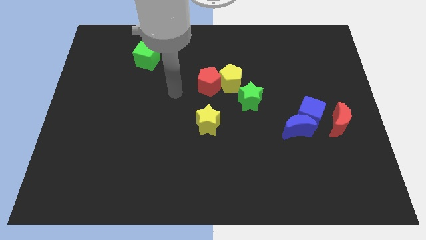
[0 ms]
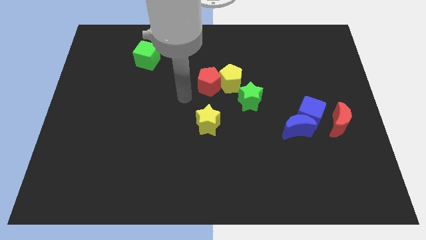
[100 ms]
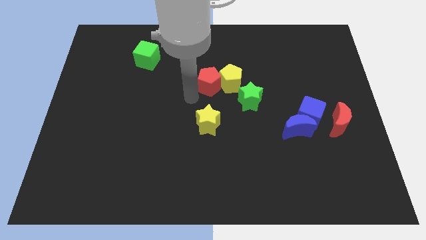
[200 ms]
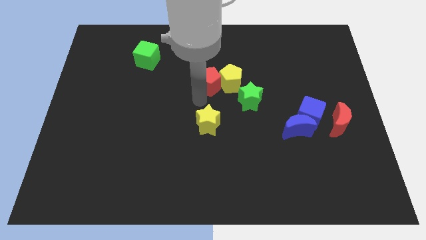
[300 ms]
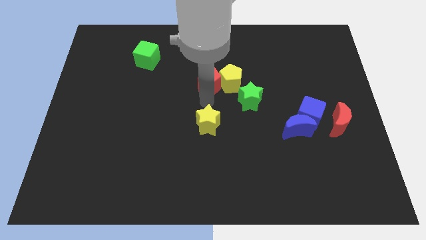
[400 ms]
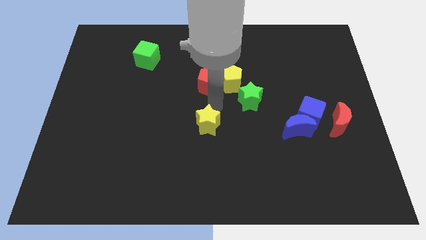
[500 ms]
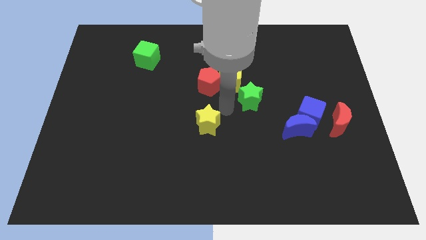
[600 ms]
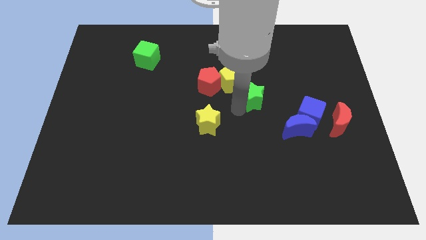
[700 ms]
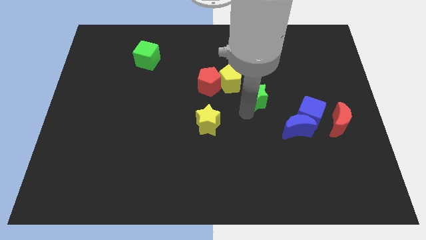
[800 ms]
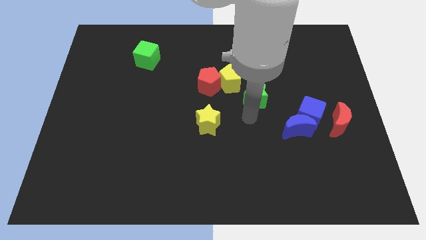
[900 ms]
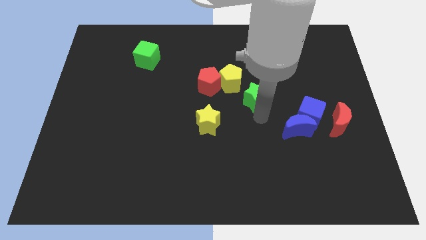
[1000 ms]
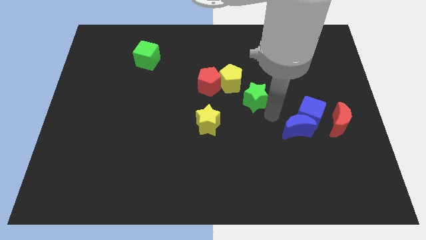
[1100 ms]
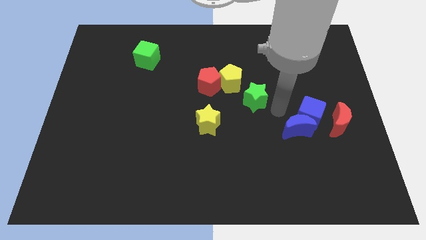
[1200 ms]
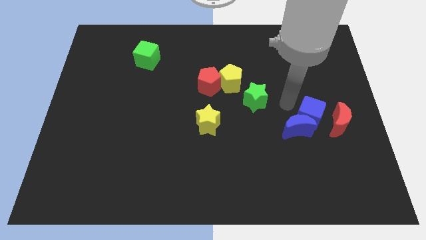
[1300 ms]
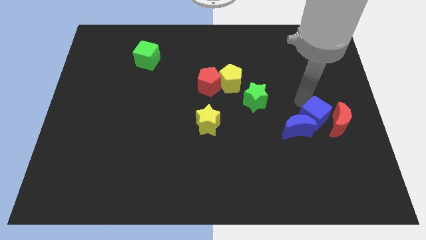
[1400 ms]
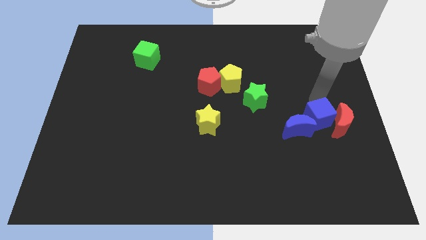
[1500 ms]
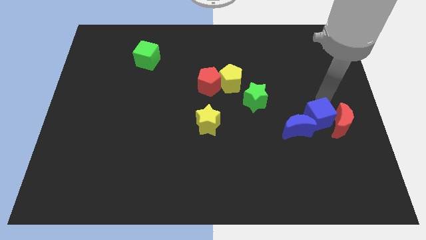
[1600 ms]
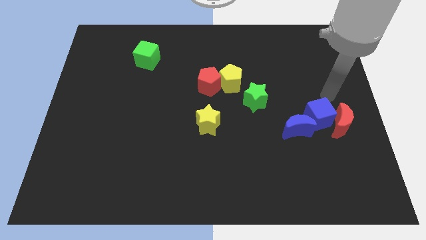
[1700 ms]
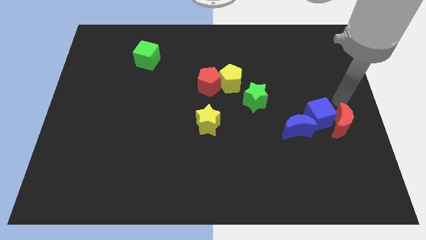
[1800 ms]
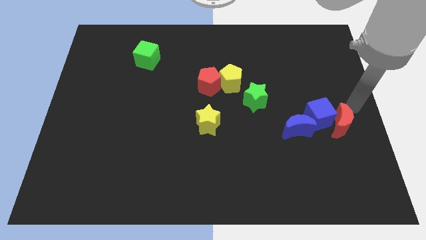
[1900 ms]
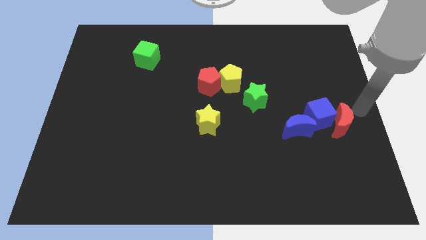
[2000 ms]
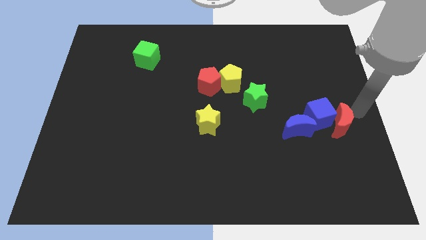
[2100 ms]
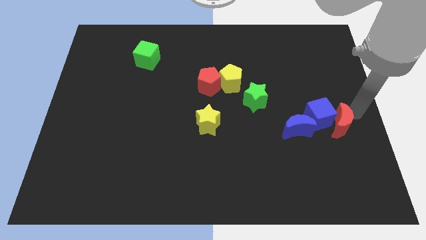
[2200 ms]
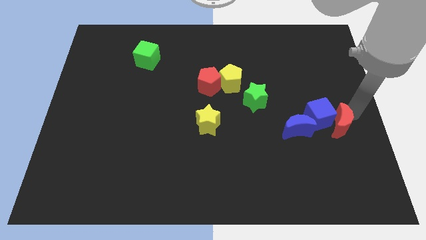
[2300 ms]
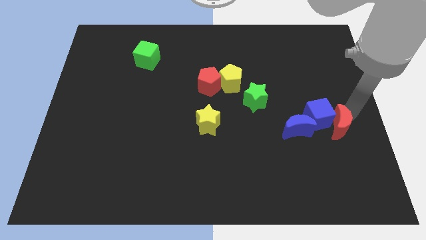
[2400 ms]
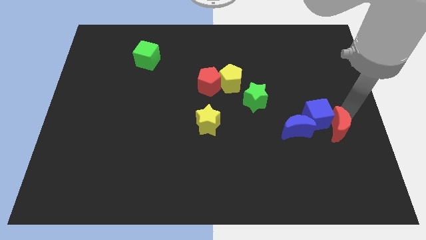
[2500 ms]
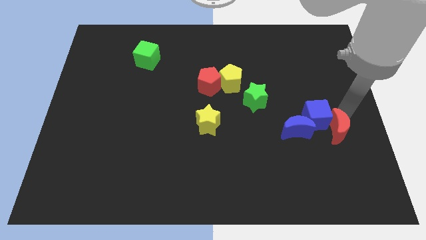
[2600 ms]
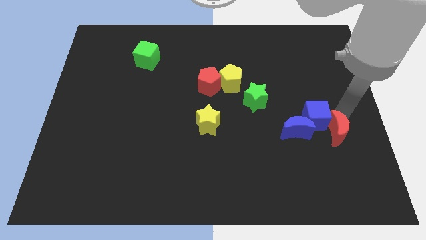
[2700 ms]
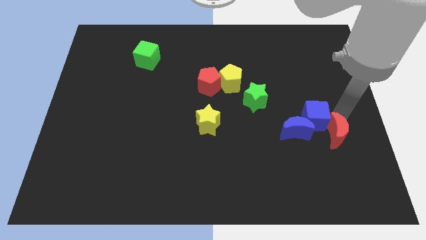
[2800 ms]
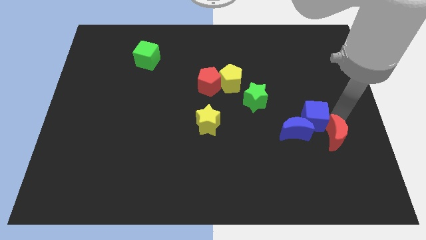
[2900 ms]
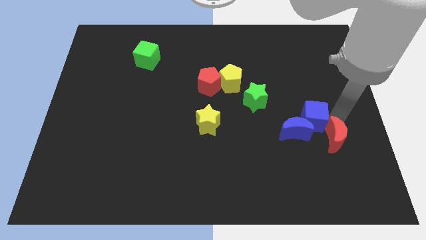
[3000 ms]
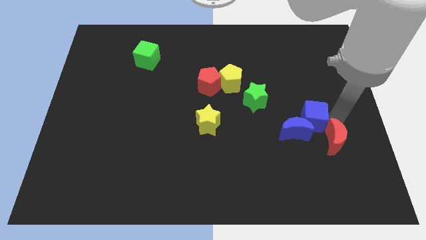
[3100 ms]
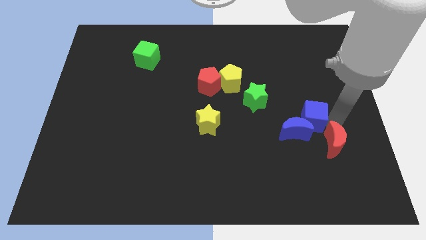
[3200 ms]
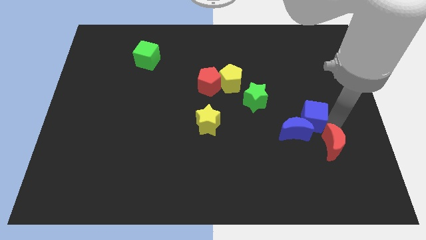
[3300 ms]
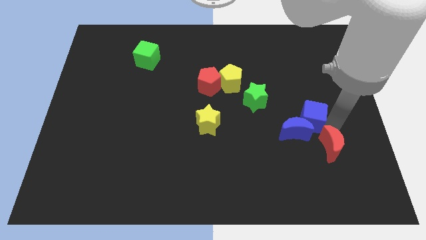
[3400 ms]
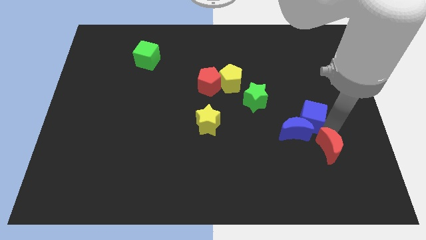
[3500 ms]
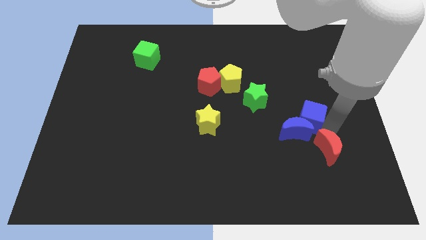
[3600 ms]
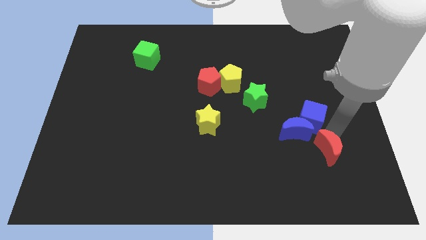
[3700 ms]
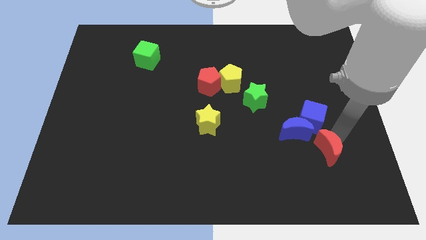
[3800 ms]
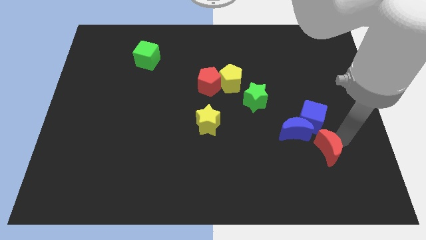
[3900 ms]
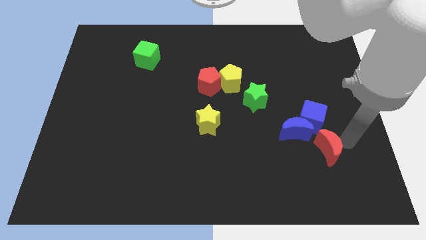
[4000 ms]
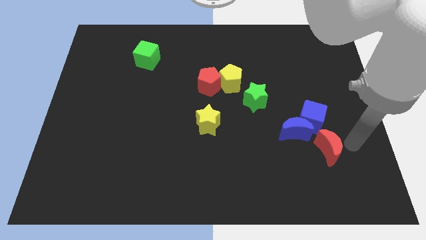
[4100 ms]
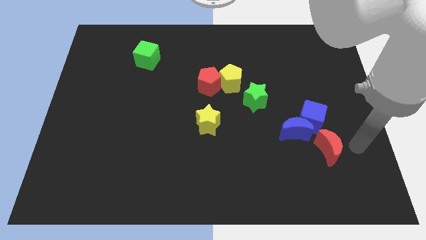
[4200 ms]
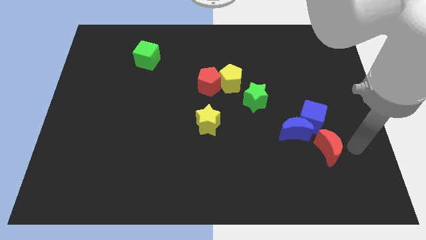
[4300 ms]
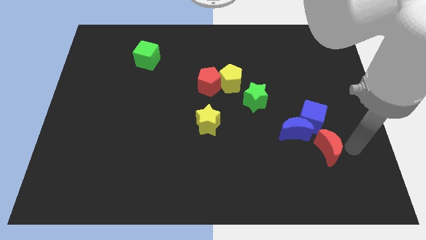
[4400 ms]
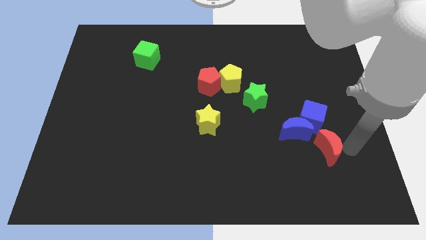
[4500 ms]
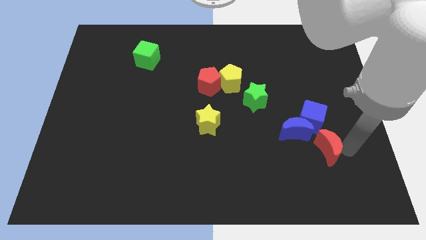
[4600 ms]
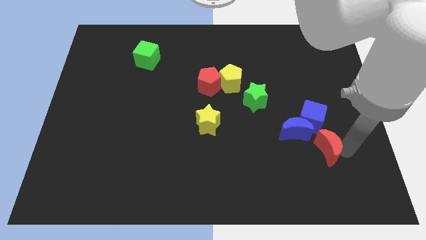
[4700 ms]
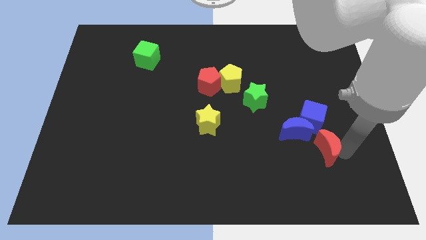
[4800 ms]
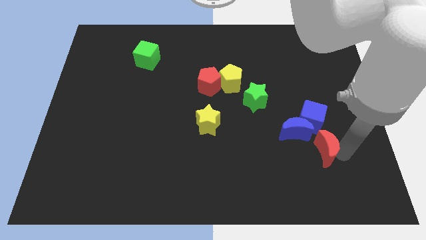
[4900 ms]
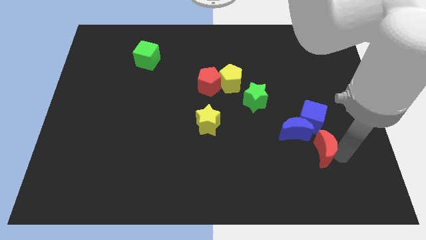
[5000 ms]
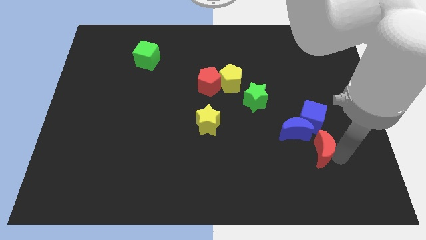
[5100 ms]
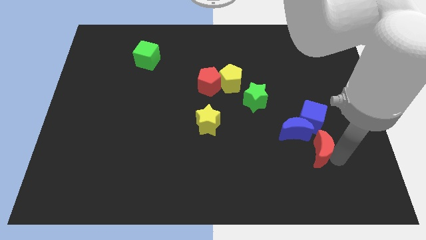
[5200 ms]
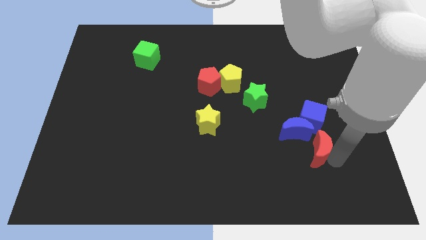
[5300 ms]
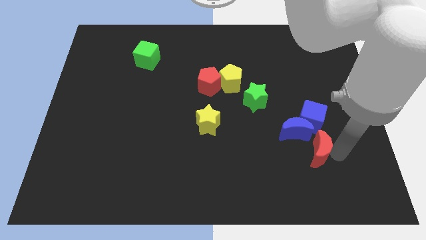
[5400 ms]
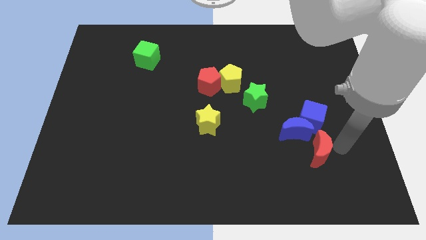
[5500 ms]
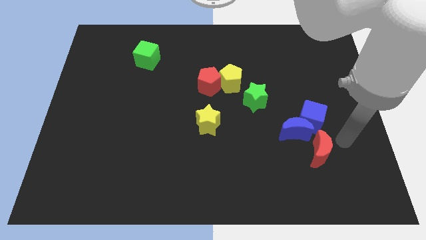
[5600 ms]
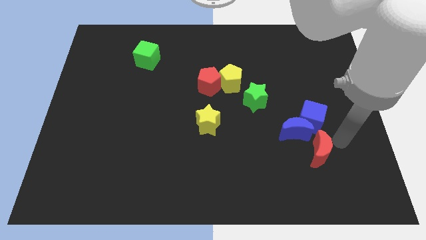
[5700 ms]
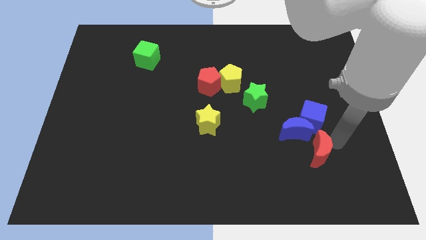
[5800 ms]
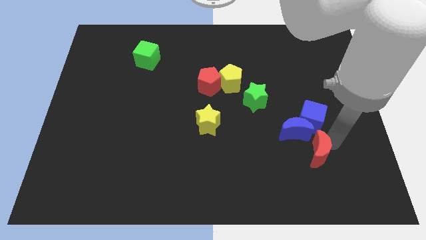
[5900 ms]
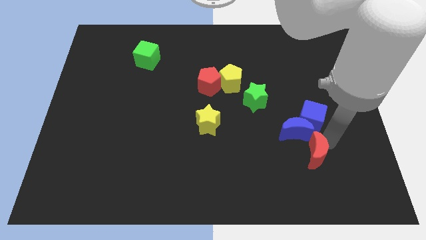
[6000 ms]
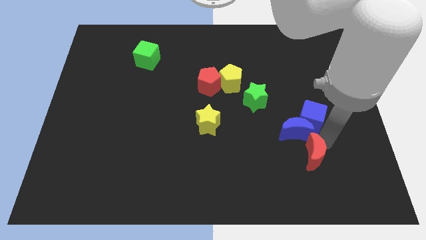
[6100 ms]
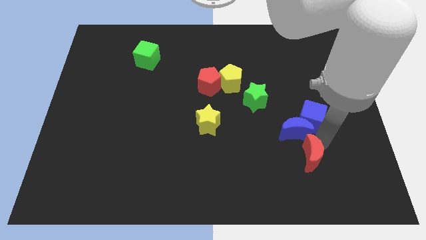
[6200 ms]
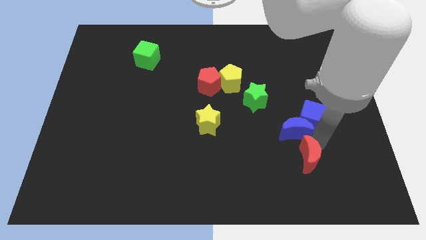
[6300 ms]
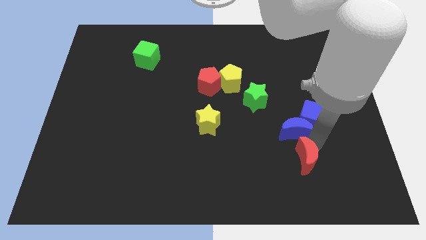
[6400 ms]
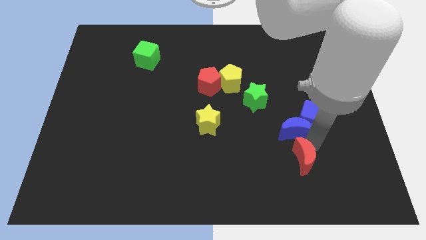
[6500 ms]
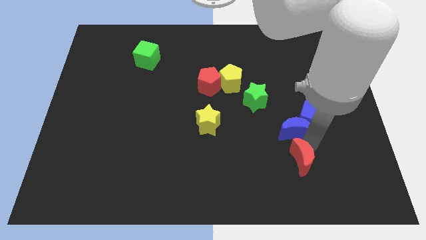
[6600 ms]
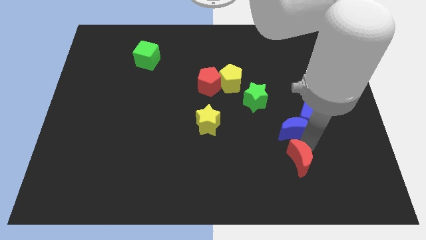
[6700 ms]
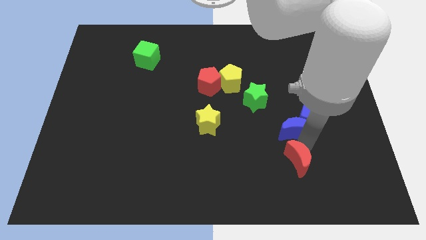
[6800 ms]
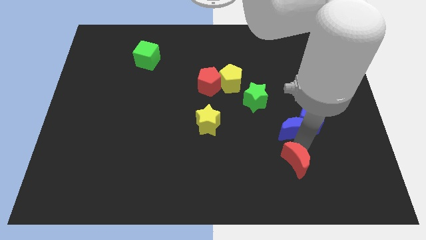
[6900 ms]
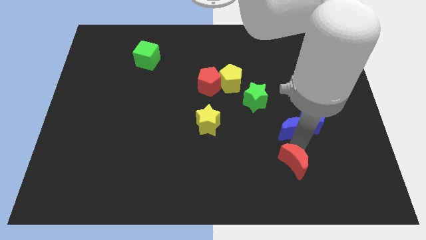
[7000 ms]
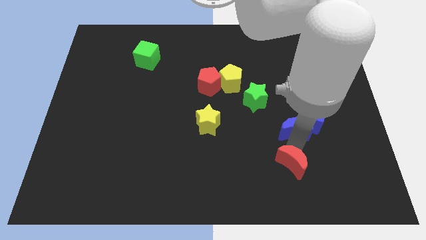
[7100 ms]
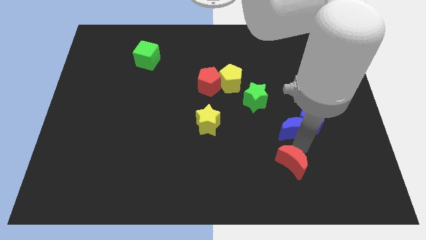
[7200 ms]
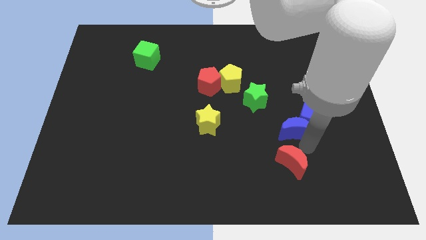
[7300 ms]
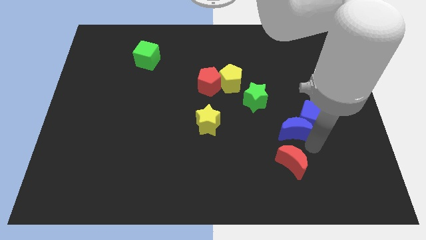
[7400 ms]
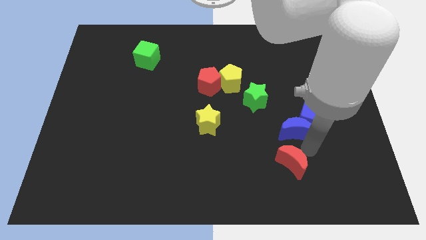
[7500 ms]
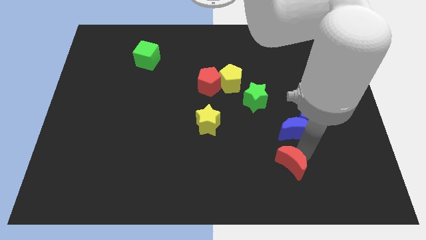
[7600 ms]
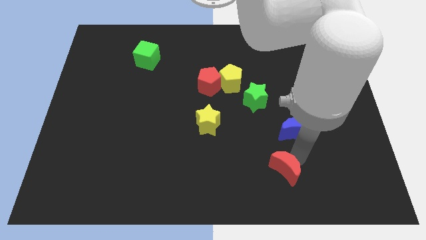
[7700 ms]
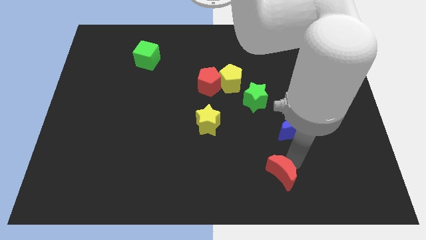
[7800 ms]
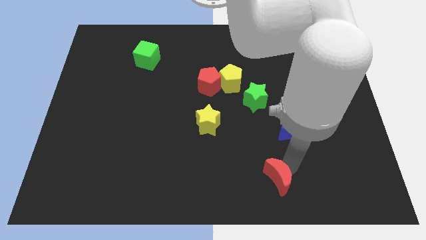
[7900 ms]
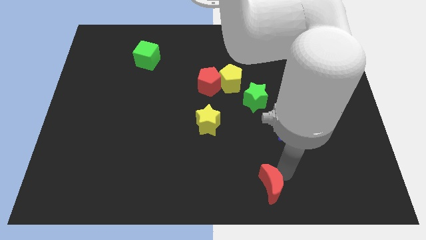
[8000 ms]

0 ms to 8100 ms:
put the red moon to the bottom side
